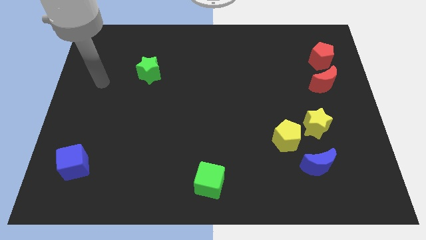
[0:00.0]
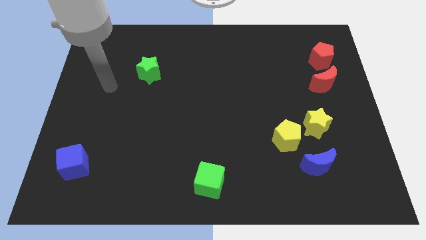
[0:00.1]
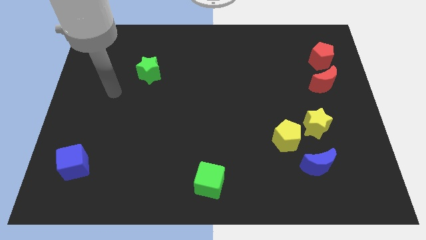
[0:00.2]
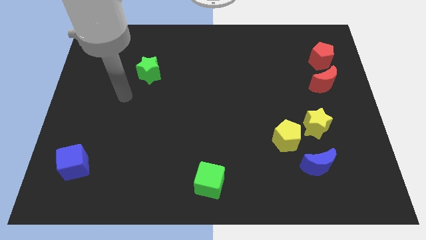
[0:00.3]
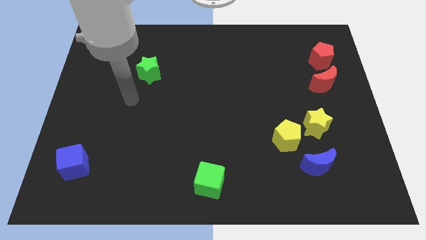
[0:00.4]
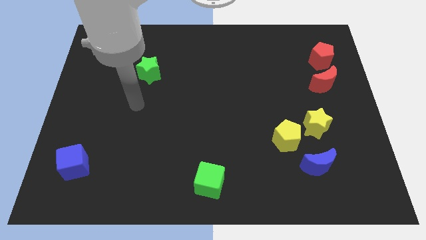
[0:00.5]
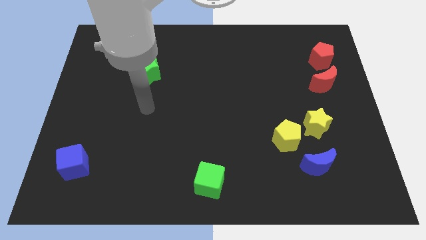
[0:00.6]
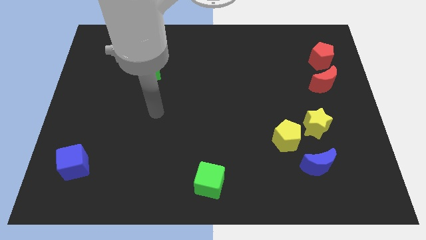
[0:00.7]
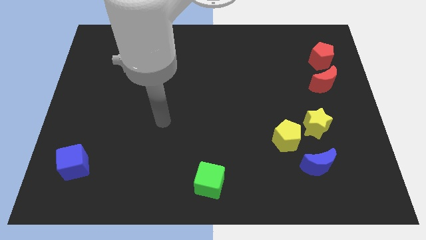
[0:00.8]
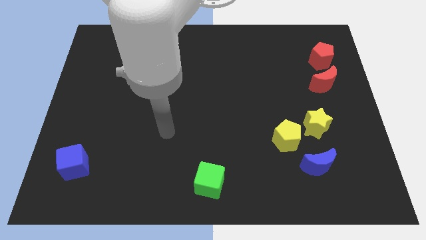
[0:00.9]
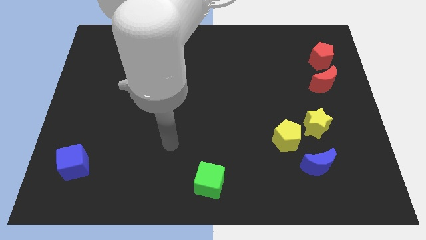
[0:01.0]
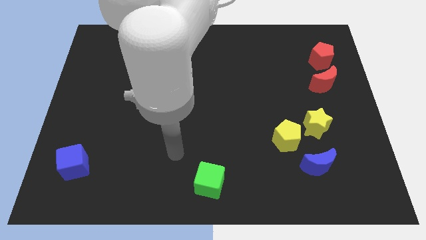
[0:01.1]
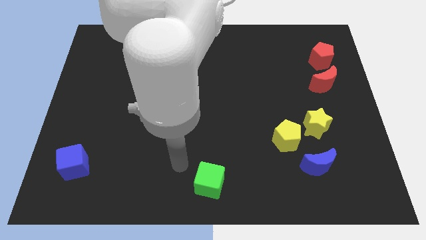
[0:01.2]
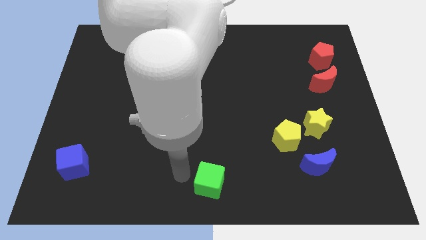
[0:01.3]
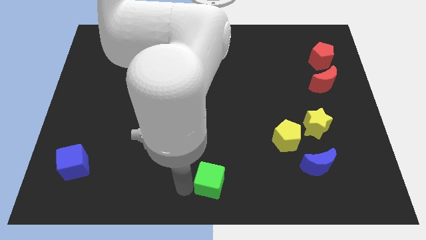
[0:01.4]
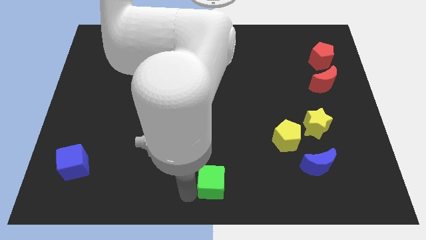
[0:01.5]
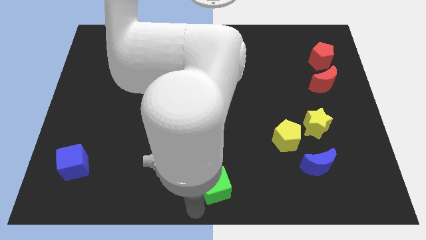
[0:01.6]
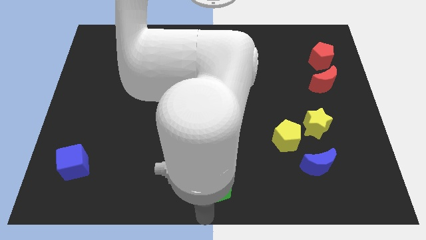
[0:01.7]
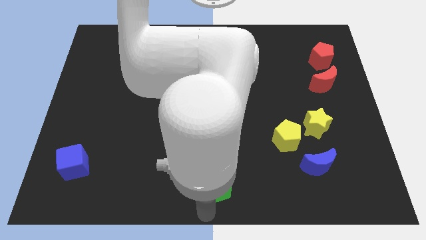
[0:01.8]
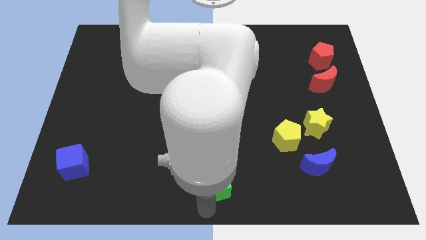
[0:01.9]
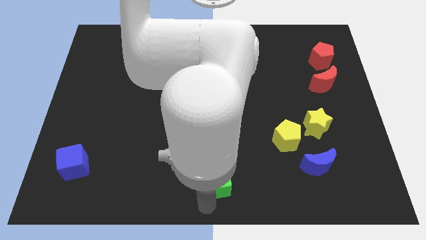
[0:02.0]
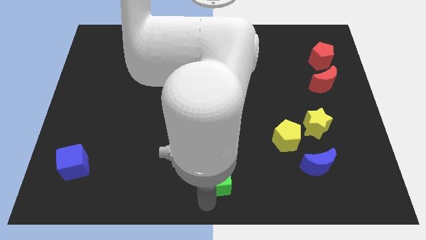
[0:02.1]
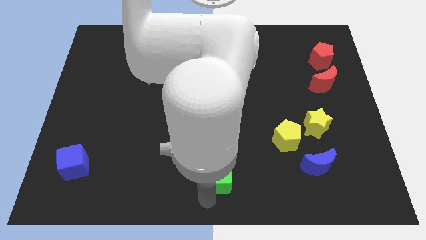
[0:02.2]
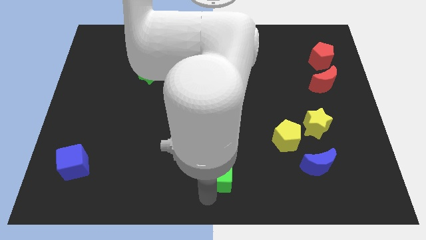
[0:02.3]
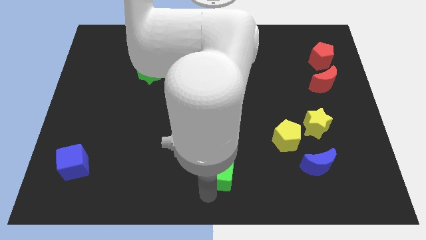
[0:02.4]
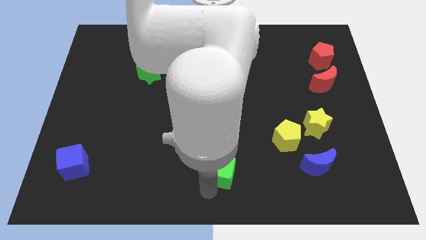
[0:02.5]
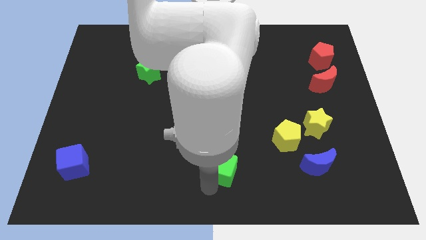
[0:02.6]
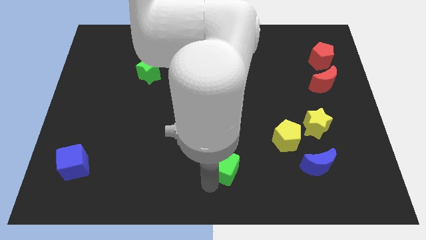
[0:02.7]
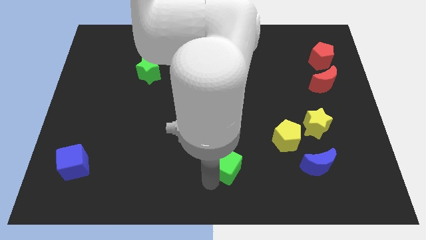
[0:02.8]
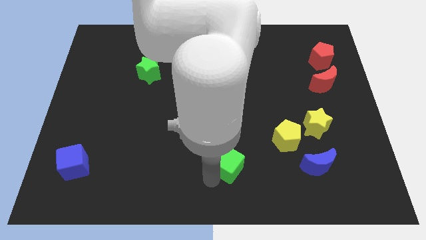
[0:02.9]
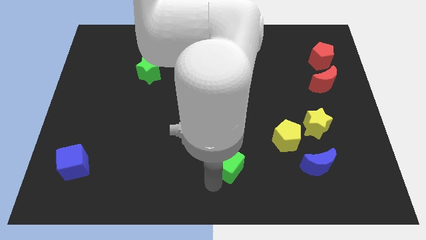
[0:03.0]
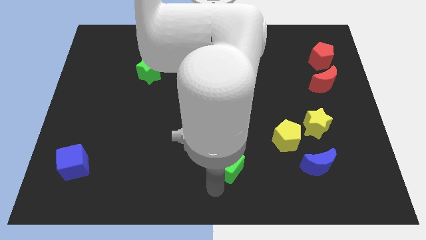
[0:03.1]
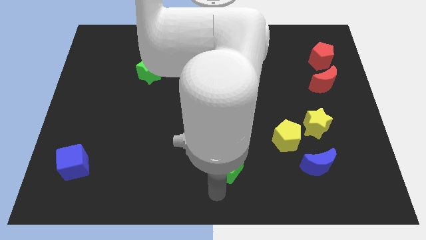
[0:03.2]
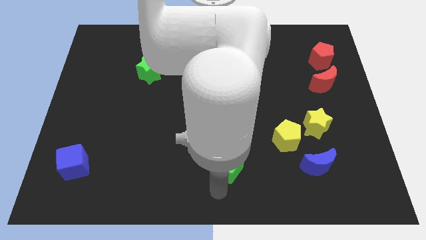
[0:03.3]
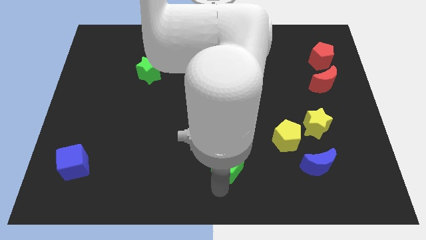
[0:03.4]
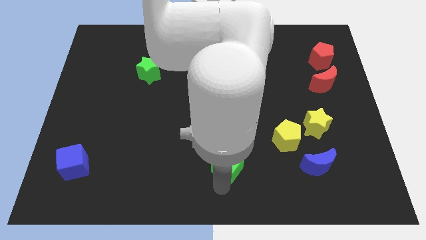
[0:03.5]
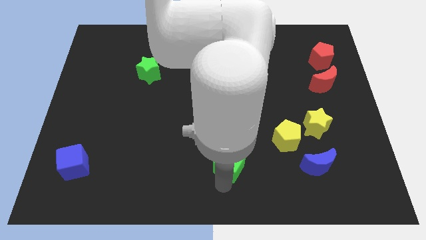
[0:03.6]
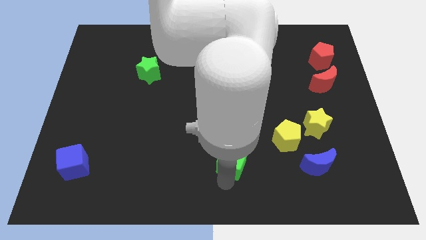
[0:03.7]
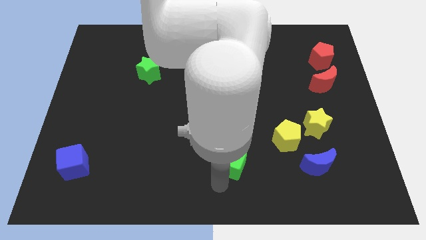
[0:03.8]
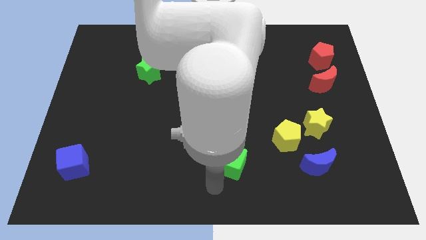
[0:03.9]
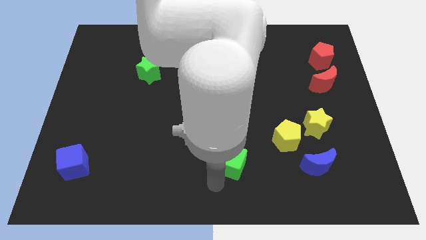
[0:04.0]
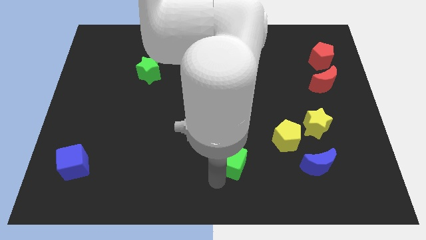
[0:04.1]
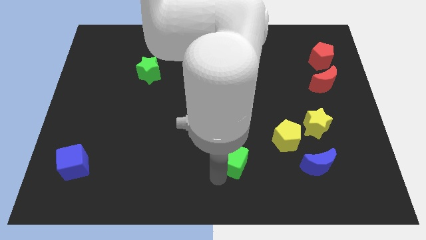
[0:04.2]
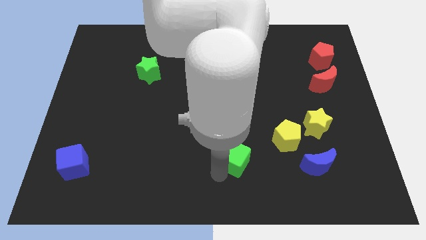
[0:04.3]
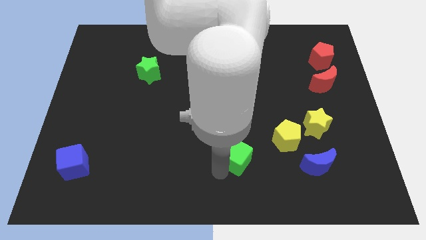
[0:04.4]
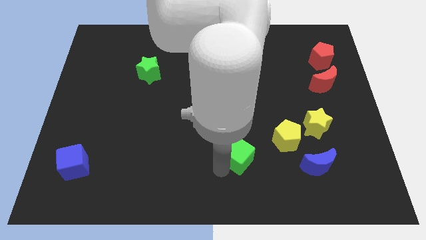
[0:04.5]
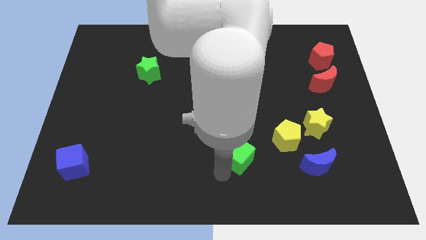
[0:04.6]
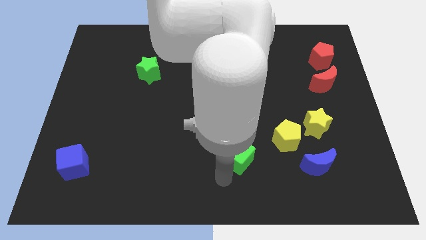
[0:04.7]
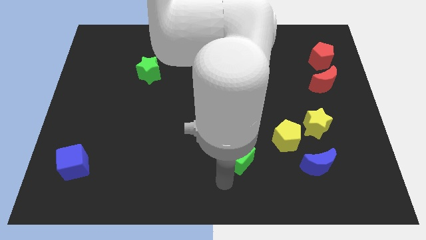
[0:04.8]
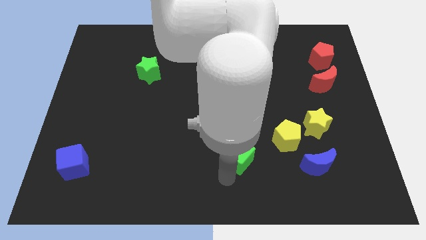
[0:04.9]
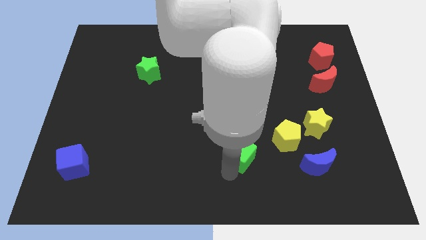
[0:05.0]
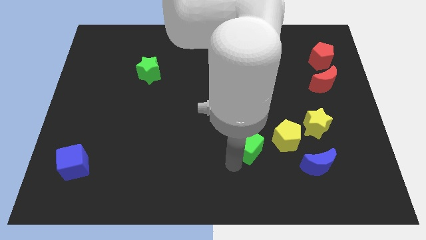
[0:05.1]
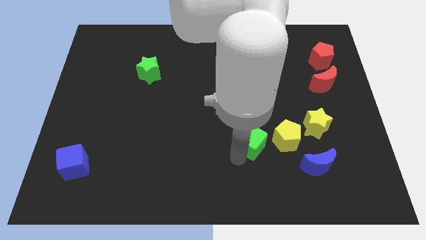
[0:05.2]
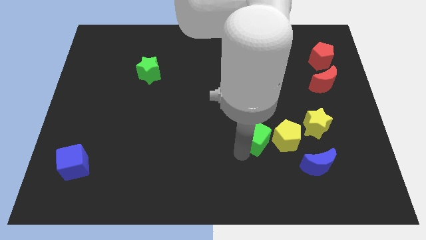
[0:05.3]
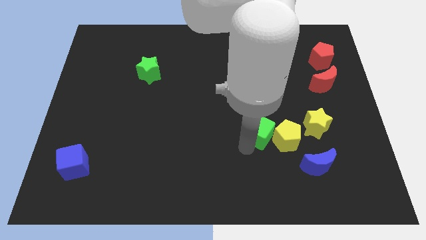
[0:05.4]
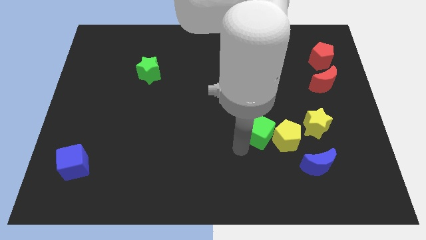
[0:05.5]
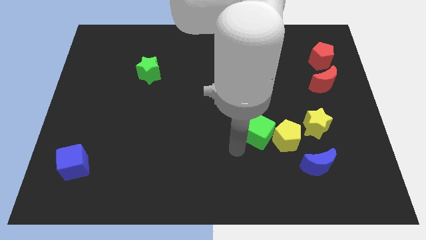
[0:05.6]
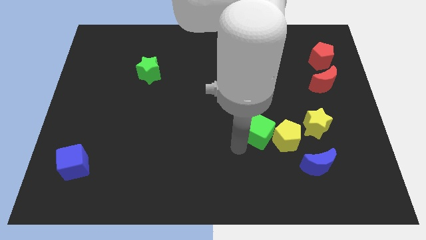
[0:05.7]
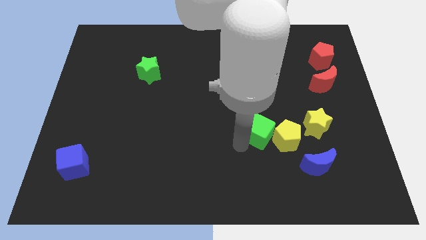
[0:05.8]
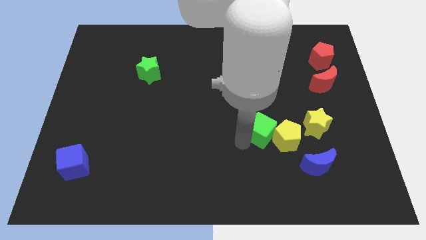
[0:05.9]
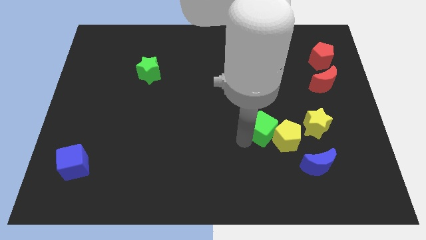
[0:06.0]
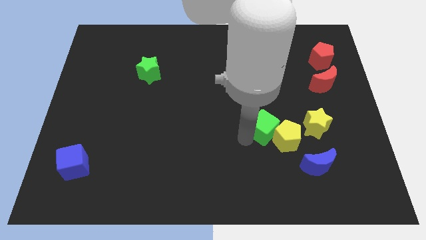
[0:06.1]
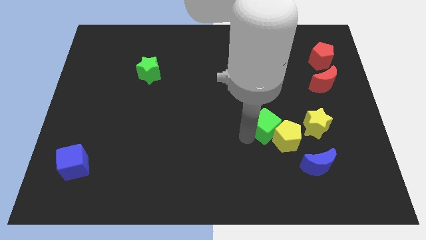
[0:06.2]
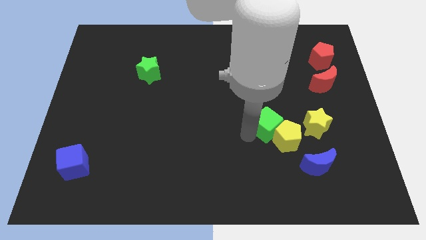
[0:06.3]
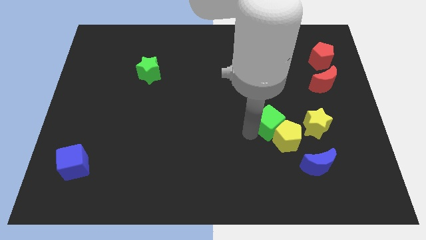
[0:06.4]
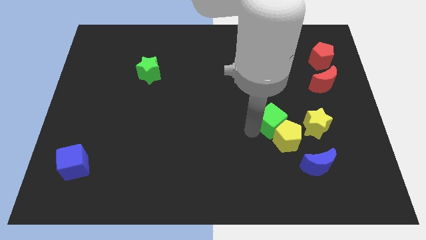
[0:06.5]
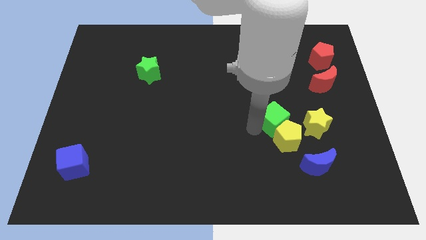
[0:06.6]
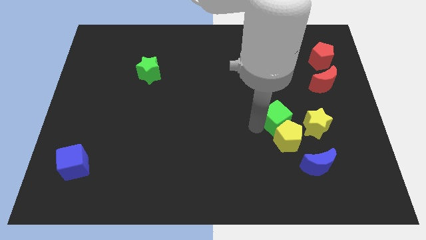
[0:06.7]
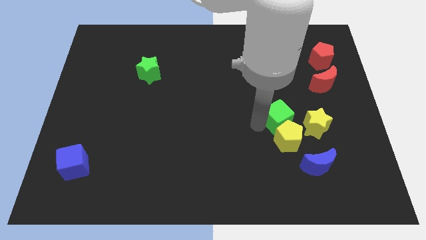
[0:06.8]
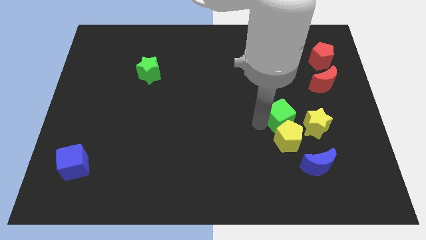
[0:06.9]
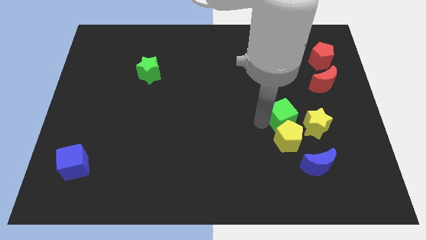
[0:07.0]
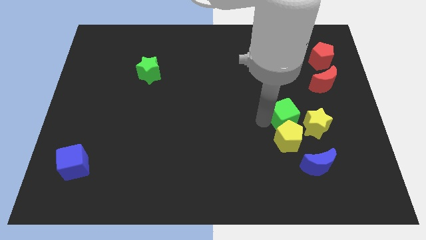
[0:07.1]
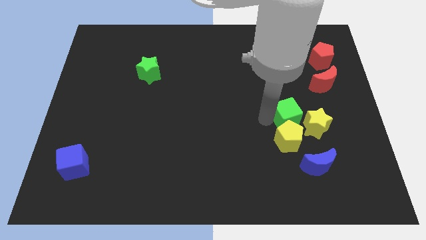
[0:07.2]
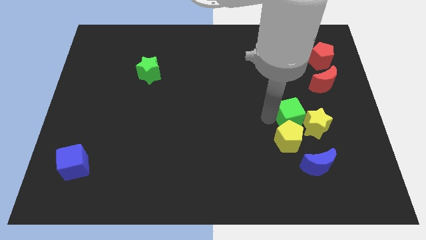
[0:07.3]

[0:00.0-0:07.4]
move the green cube next to the yellow star
